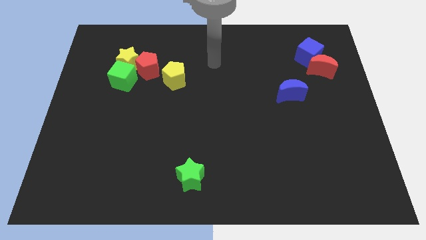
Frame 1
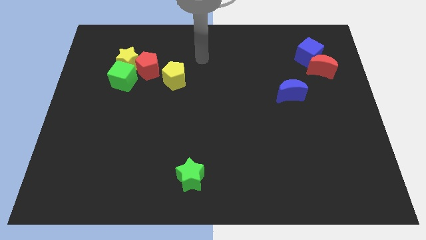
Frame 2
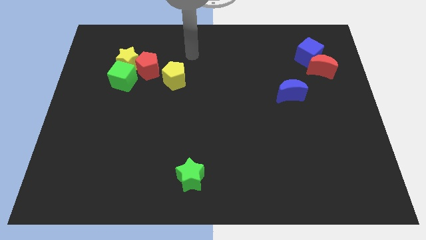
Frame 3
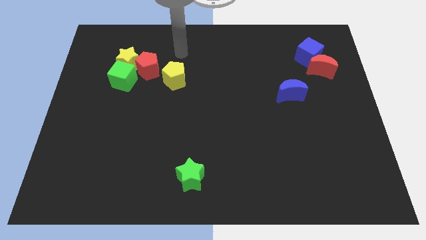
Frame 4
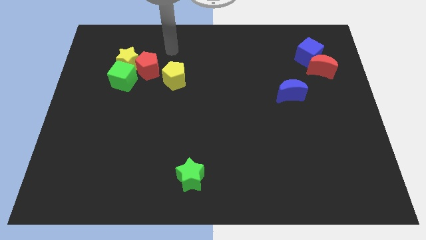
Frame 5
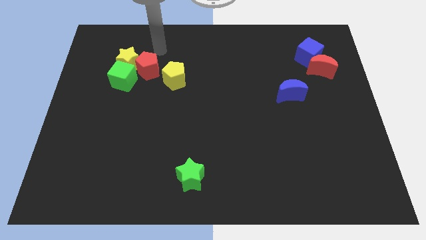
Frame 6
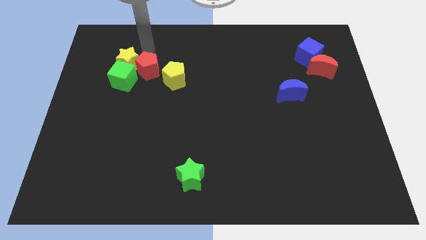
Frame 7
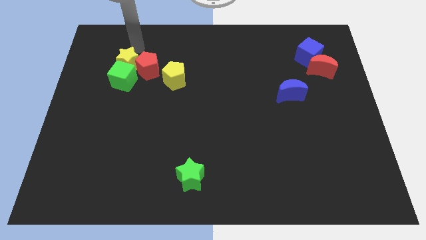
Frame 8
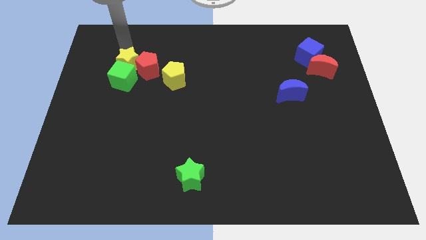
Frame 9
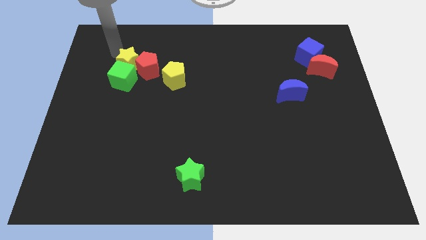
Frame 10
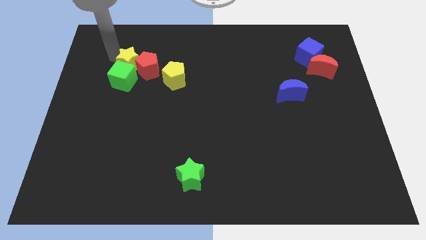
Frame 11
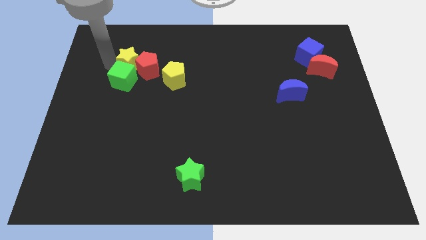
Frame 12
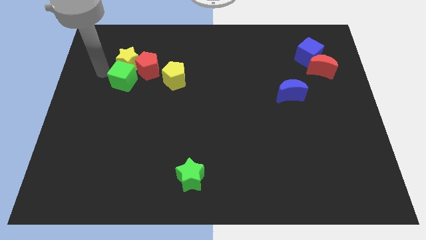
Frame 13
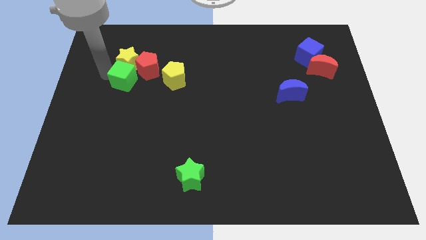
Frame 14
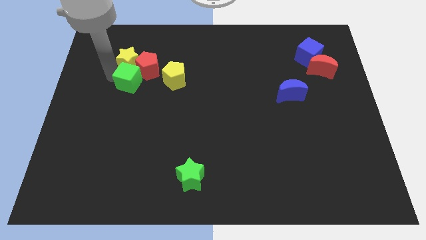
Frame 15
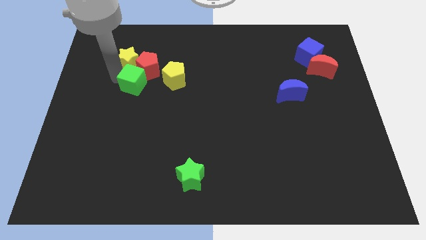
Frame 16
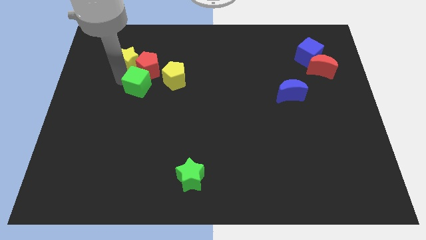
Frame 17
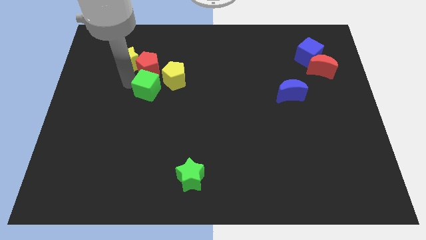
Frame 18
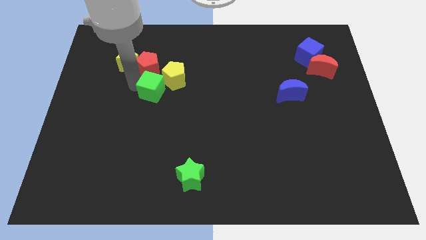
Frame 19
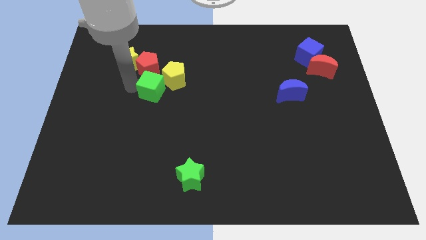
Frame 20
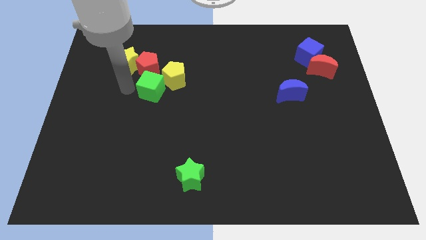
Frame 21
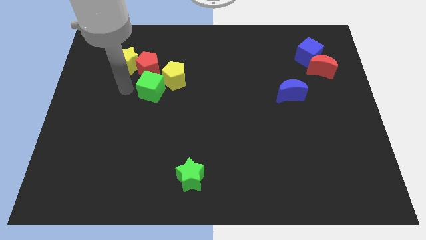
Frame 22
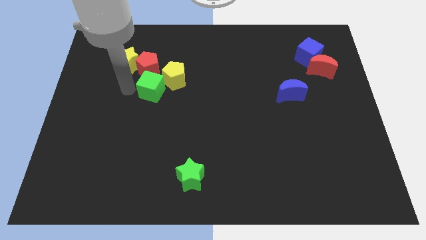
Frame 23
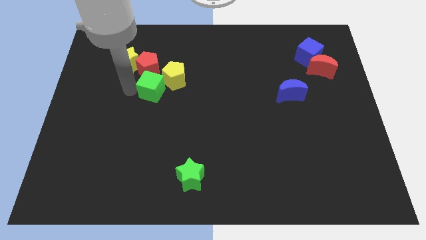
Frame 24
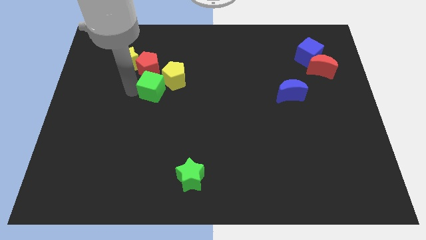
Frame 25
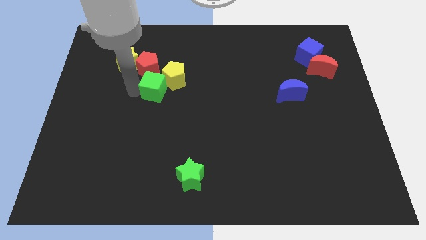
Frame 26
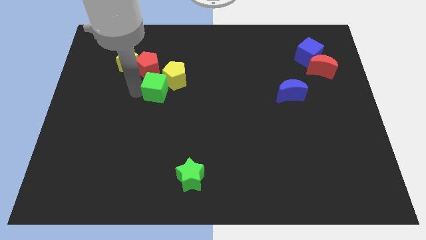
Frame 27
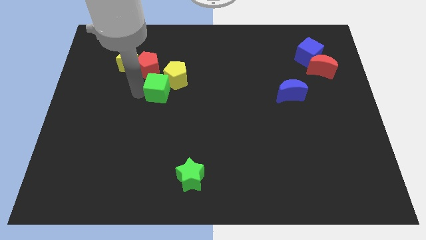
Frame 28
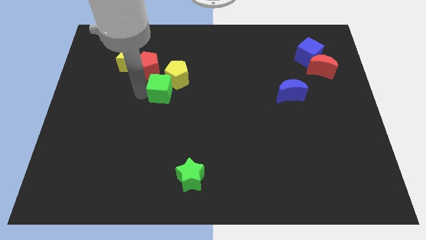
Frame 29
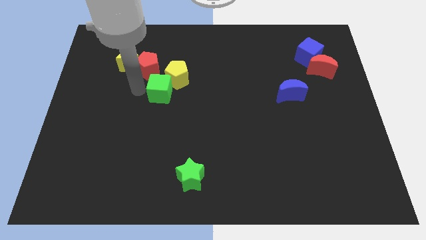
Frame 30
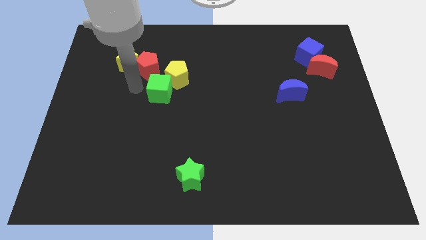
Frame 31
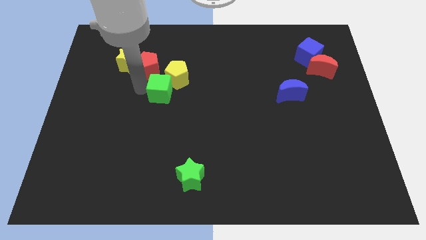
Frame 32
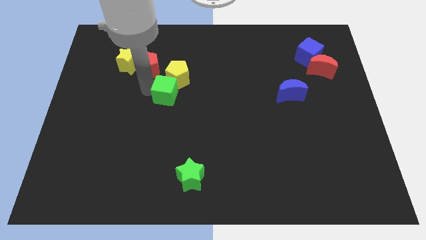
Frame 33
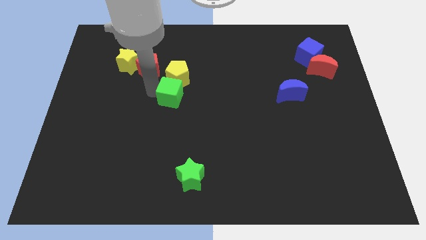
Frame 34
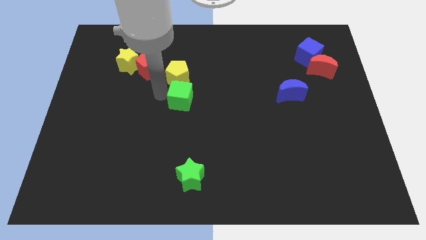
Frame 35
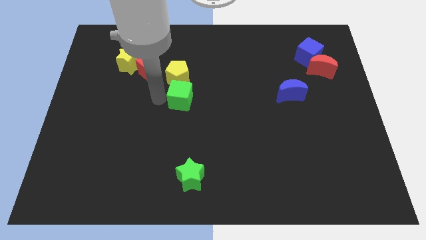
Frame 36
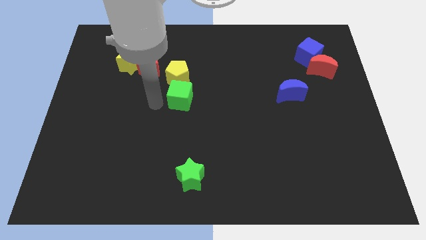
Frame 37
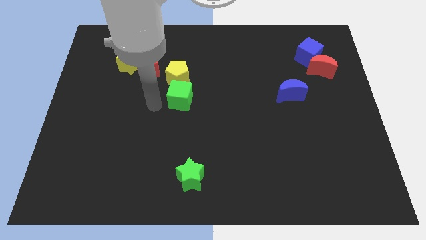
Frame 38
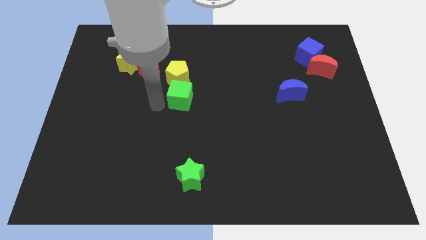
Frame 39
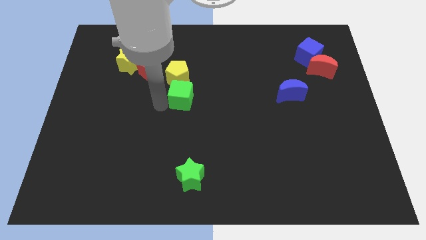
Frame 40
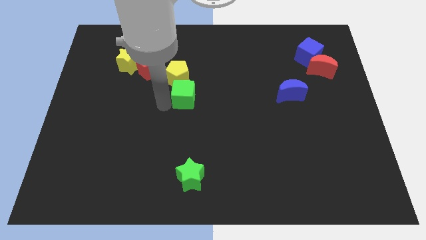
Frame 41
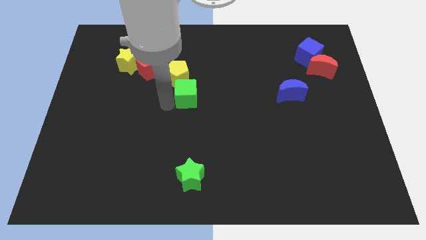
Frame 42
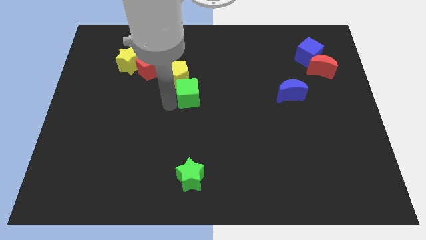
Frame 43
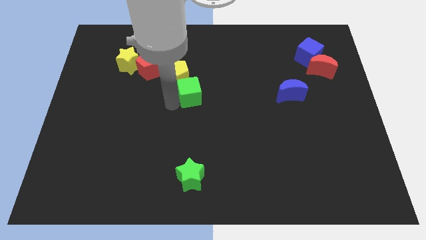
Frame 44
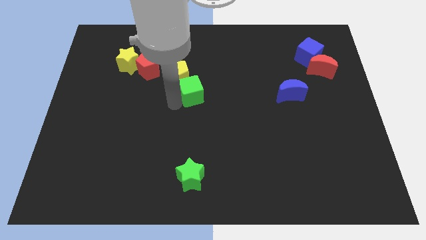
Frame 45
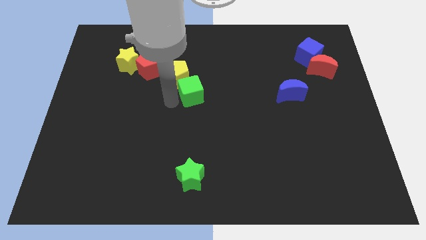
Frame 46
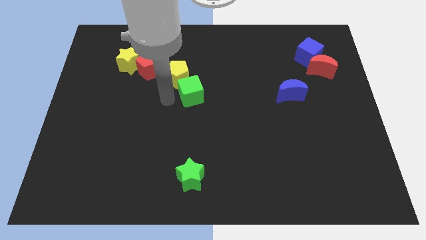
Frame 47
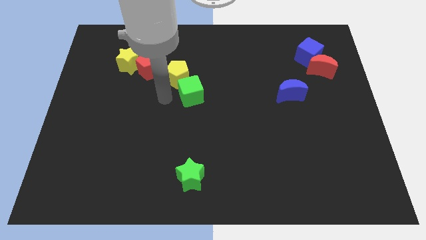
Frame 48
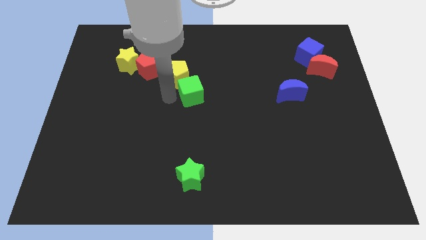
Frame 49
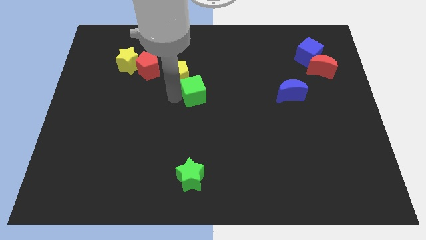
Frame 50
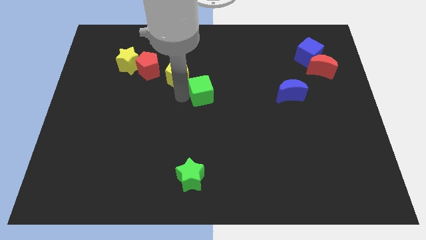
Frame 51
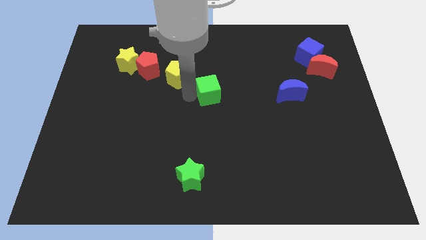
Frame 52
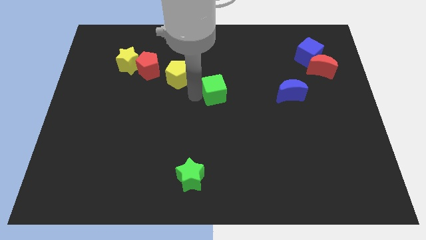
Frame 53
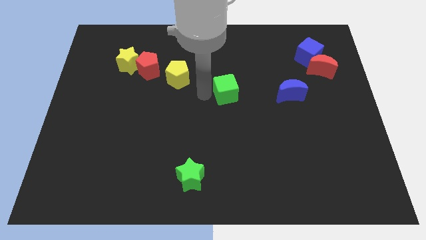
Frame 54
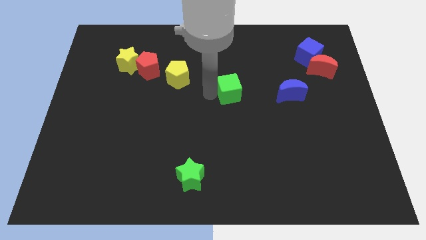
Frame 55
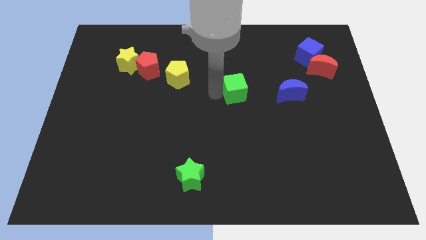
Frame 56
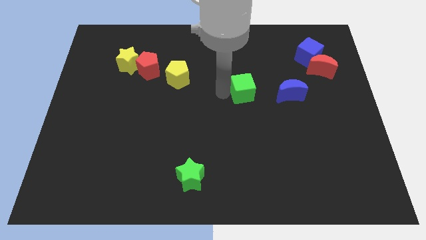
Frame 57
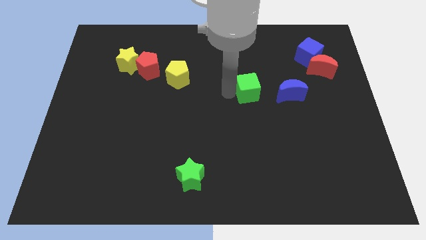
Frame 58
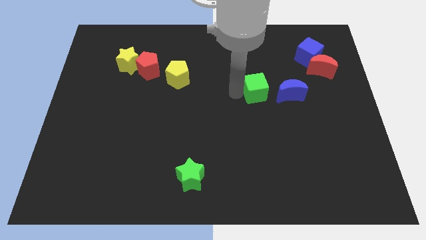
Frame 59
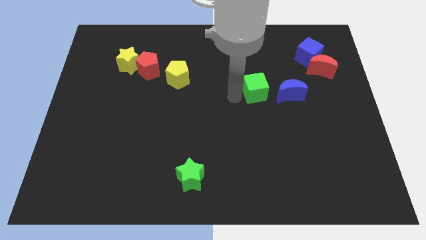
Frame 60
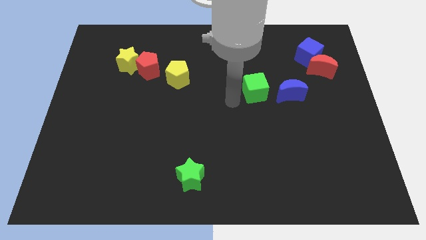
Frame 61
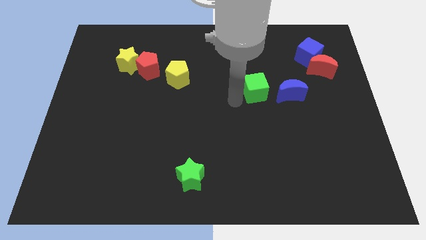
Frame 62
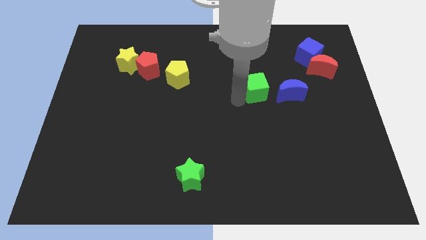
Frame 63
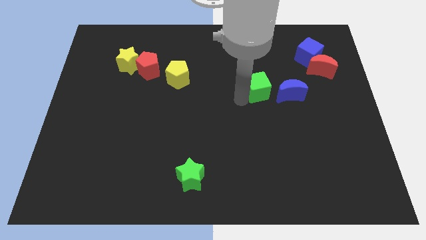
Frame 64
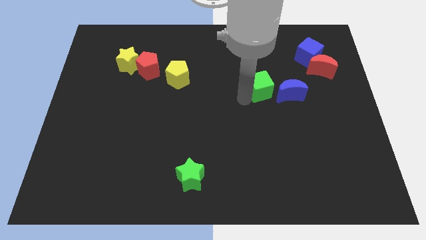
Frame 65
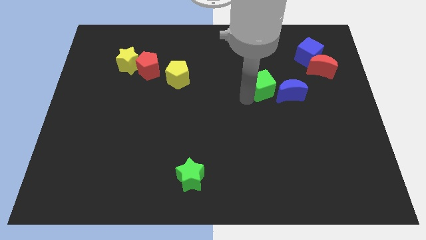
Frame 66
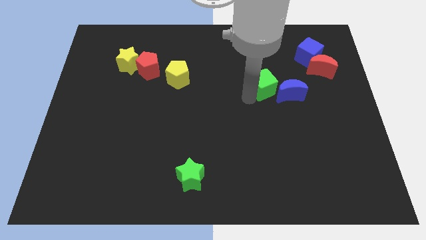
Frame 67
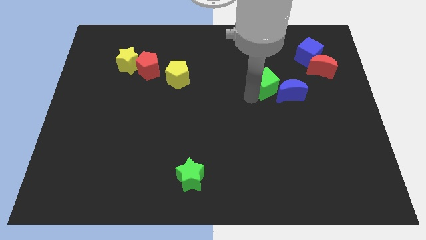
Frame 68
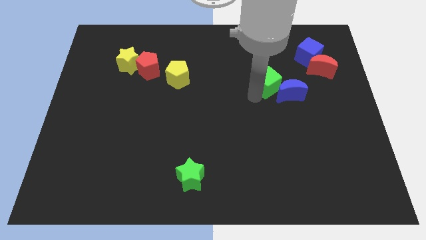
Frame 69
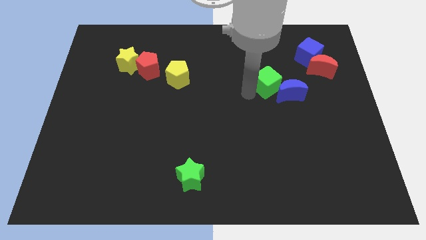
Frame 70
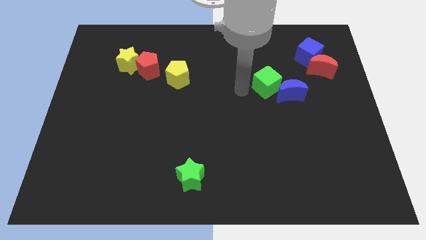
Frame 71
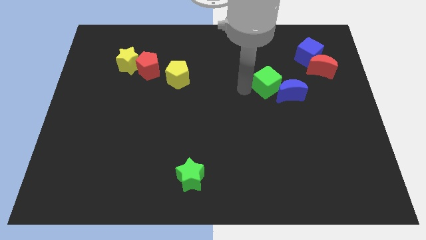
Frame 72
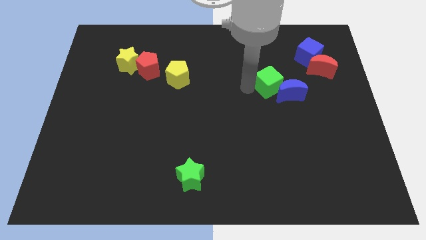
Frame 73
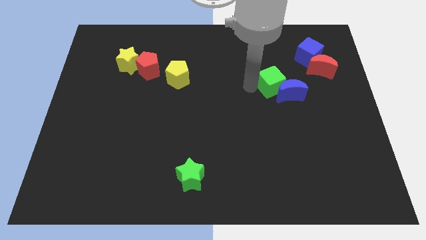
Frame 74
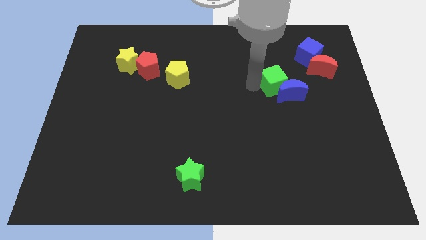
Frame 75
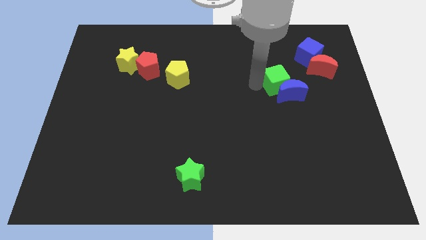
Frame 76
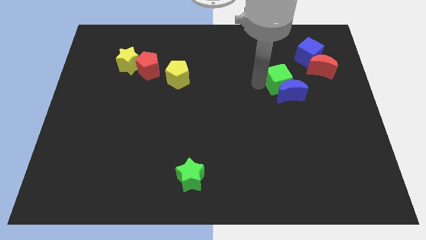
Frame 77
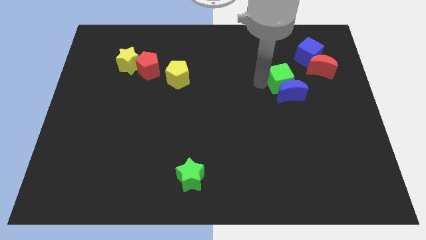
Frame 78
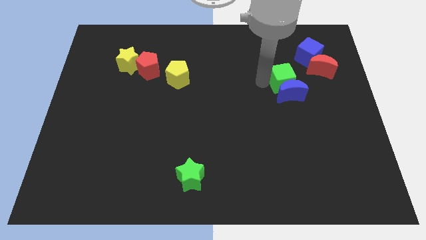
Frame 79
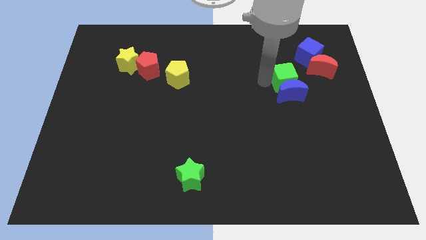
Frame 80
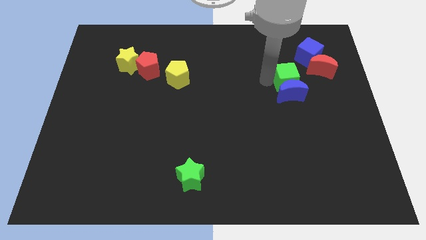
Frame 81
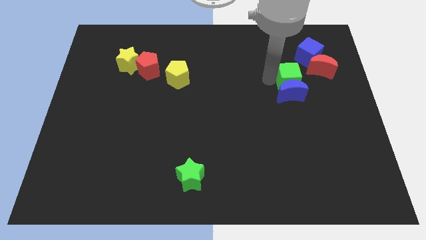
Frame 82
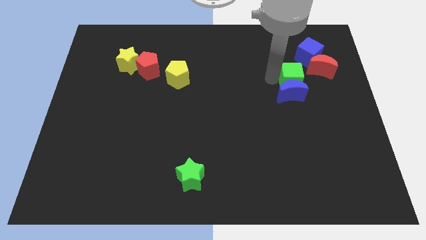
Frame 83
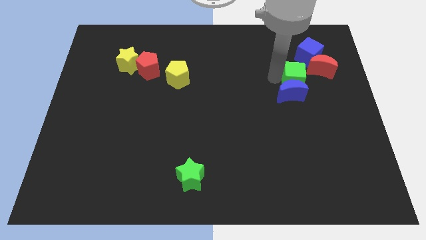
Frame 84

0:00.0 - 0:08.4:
move the green cube to the bottom of the blue cube
